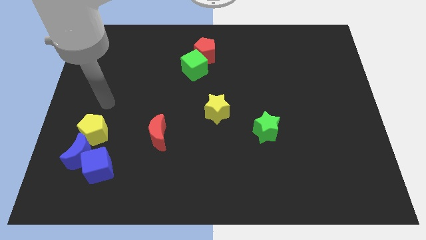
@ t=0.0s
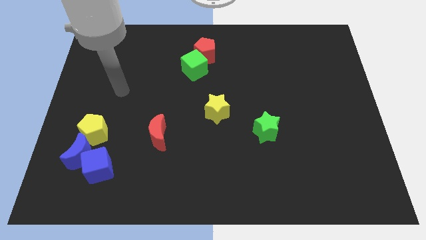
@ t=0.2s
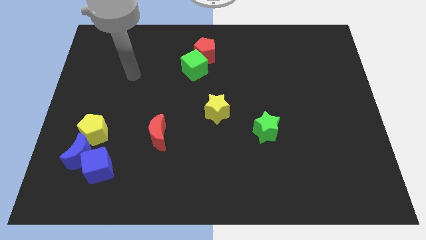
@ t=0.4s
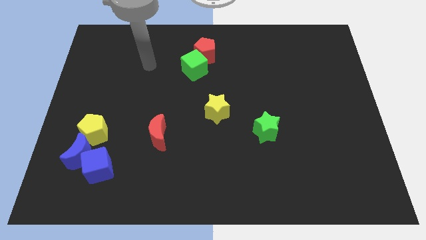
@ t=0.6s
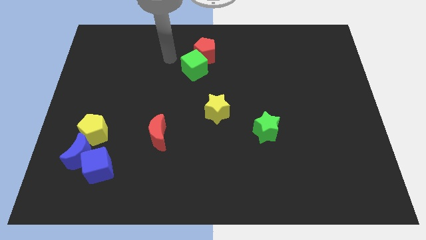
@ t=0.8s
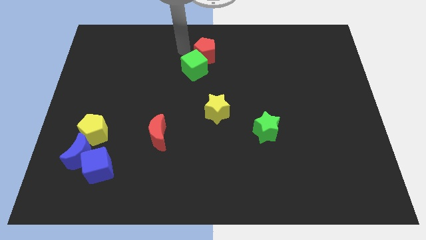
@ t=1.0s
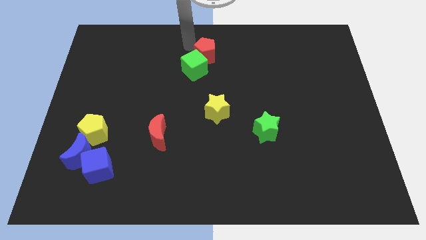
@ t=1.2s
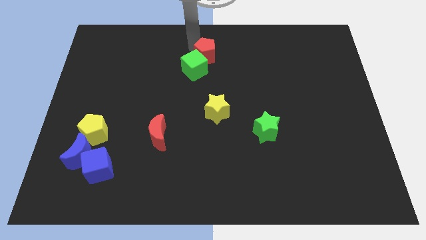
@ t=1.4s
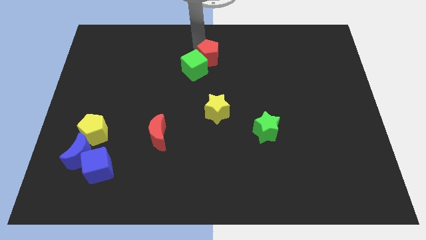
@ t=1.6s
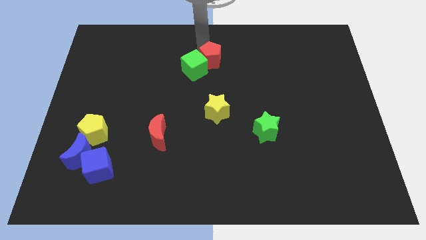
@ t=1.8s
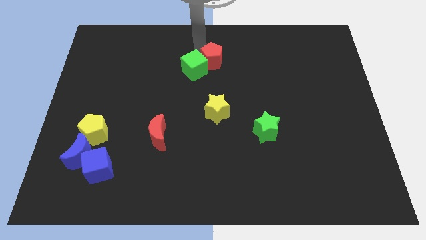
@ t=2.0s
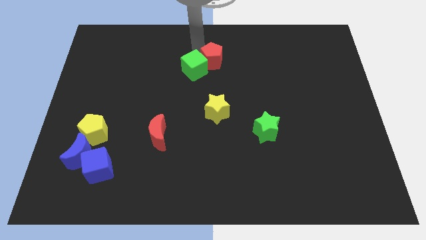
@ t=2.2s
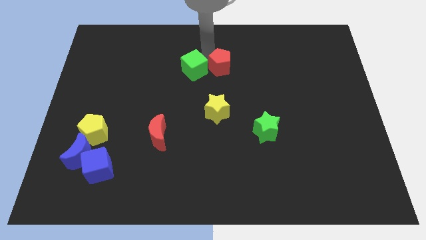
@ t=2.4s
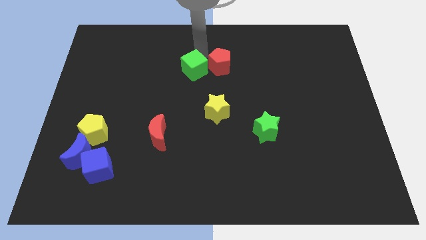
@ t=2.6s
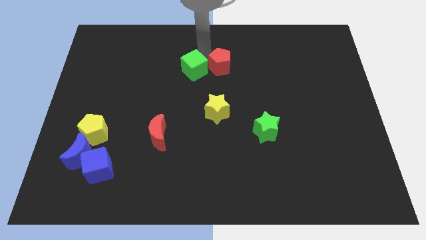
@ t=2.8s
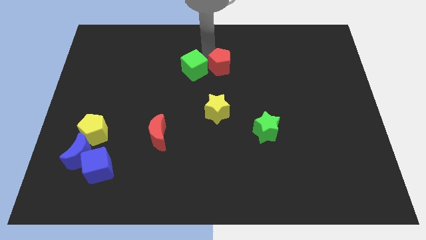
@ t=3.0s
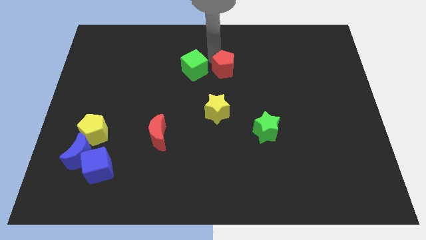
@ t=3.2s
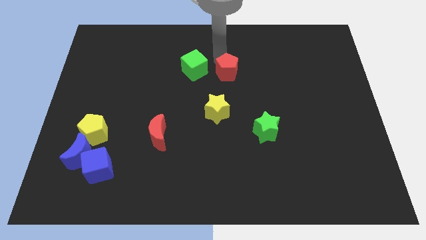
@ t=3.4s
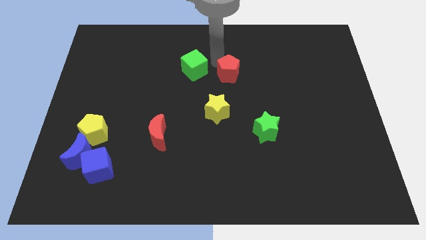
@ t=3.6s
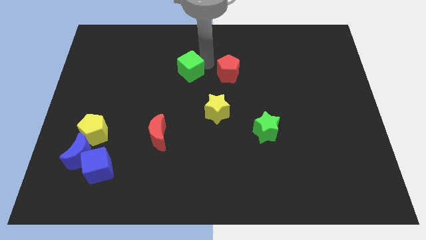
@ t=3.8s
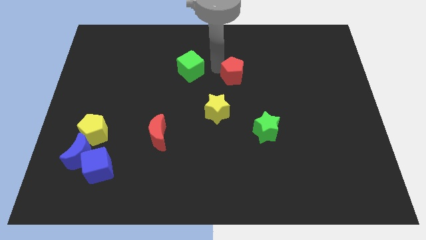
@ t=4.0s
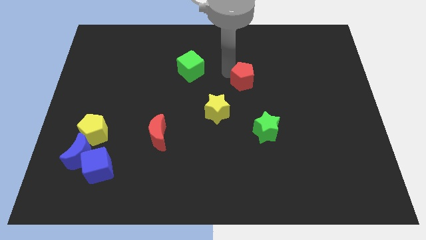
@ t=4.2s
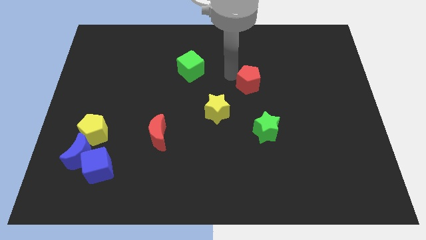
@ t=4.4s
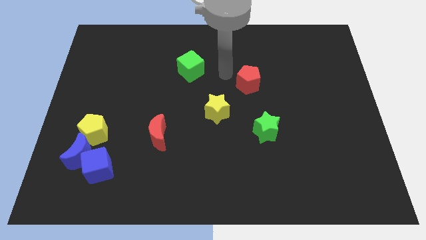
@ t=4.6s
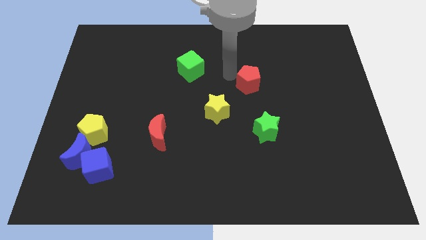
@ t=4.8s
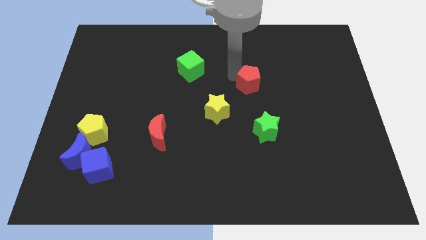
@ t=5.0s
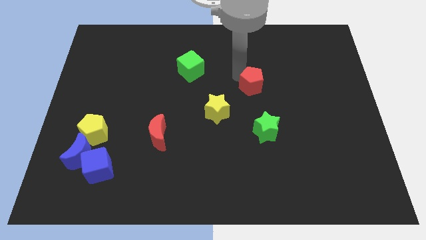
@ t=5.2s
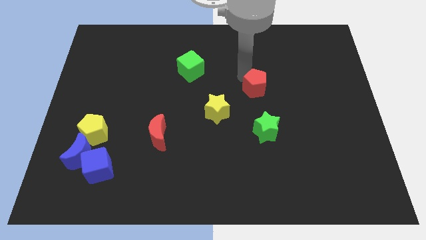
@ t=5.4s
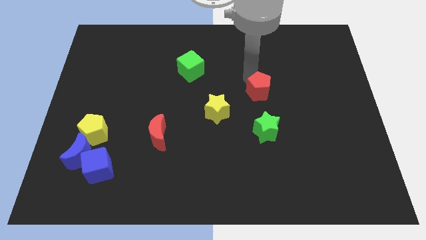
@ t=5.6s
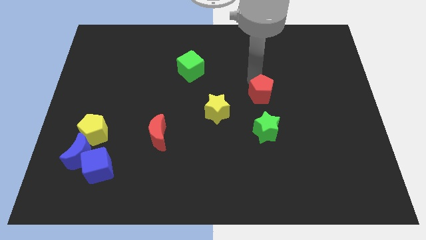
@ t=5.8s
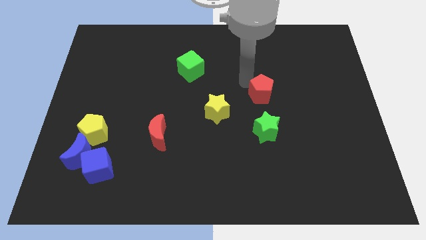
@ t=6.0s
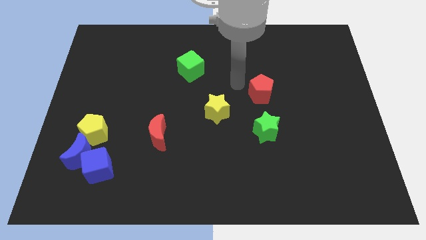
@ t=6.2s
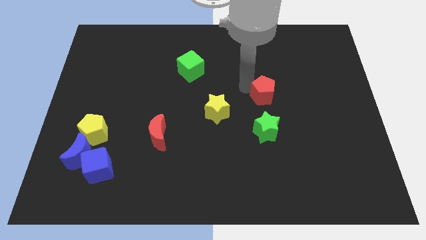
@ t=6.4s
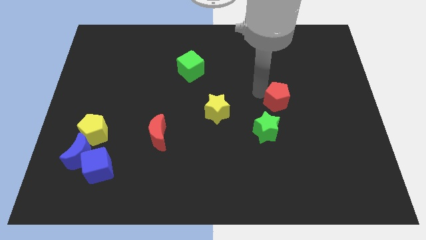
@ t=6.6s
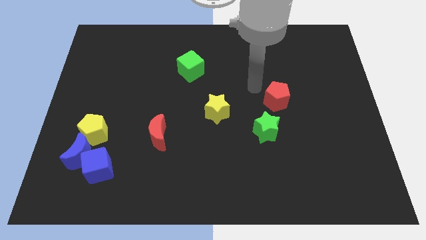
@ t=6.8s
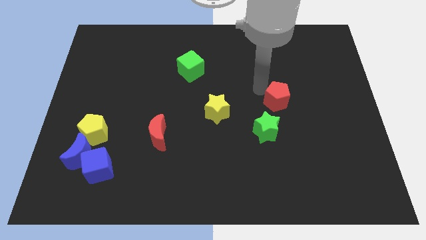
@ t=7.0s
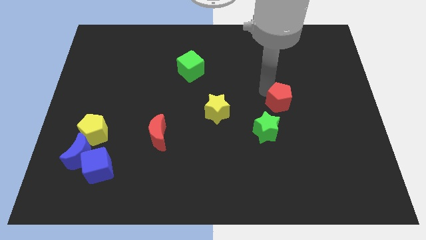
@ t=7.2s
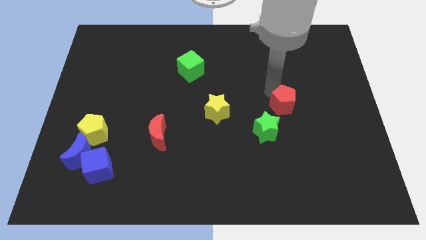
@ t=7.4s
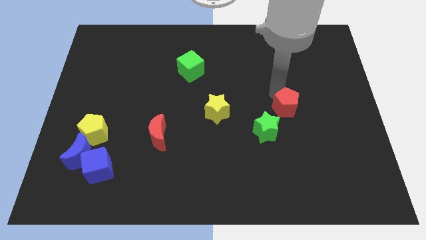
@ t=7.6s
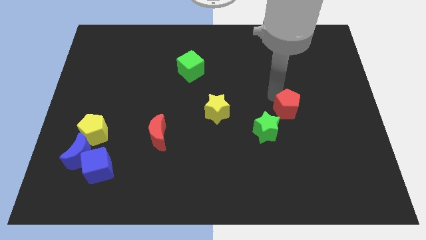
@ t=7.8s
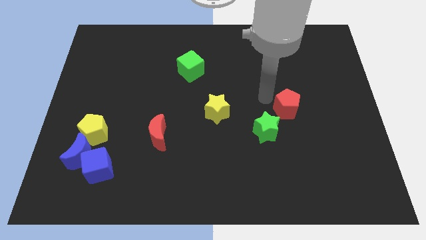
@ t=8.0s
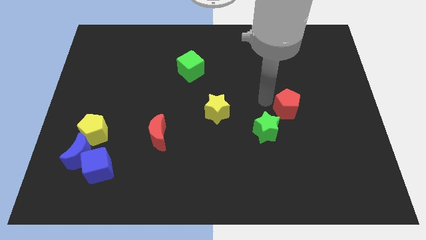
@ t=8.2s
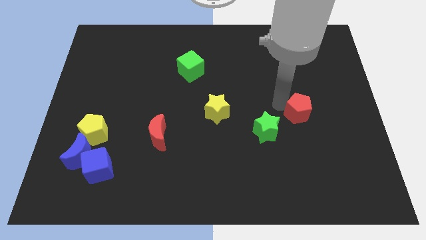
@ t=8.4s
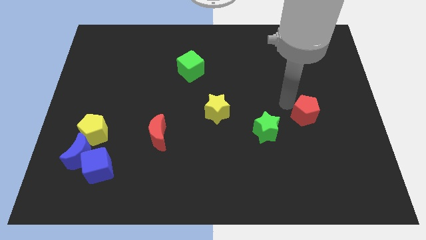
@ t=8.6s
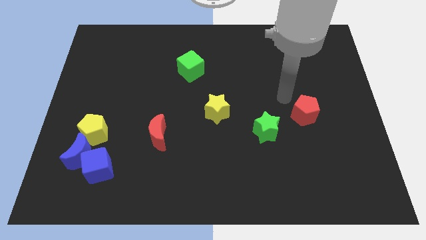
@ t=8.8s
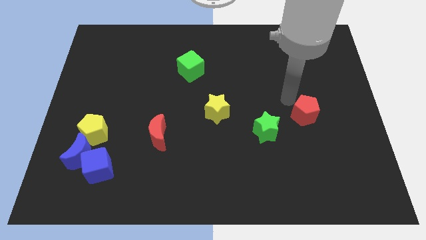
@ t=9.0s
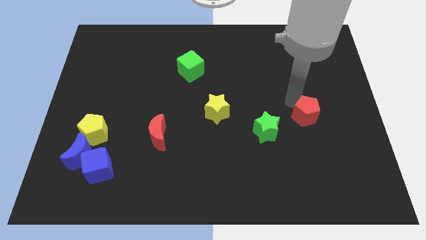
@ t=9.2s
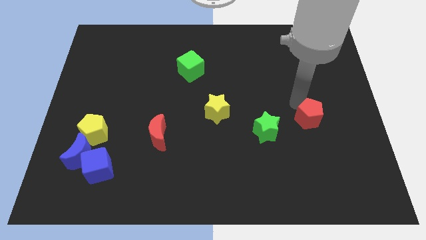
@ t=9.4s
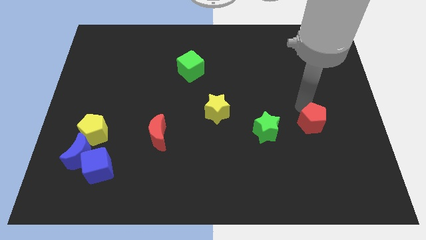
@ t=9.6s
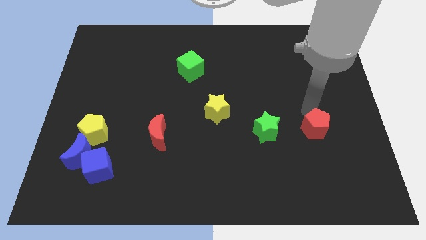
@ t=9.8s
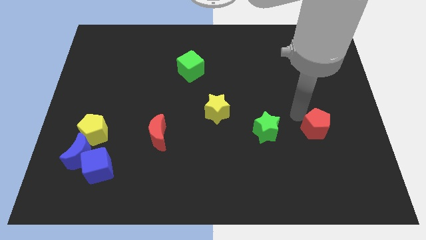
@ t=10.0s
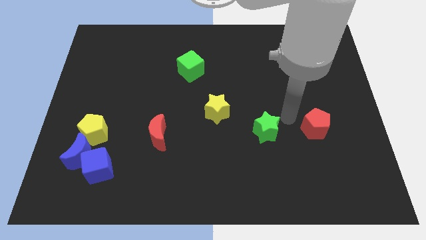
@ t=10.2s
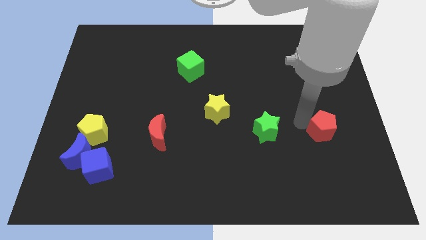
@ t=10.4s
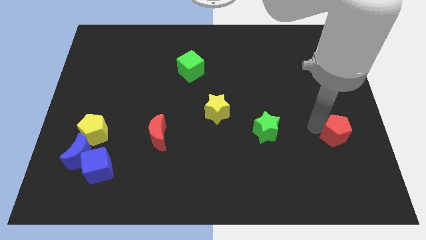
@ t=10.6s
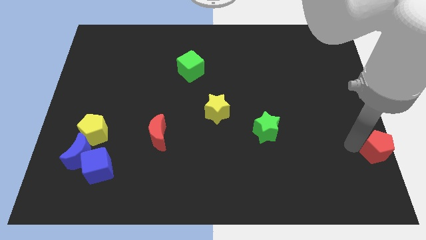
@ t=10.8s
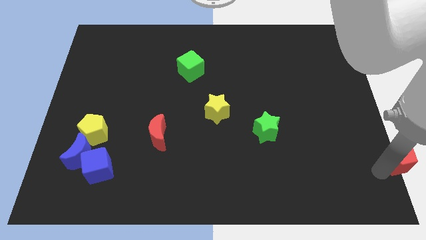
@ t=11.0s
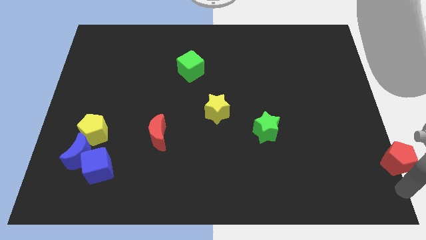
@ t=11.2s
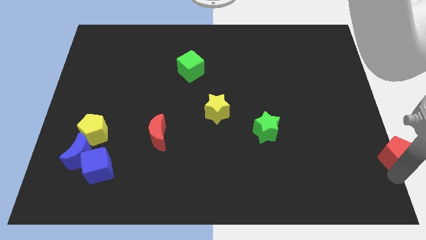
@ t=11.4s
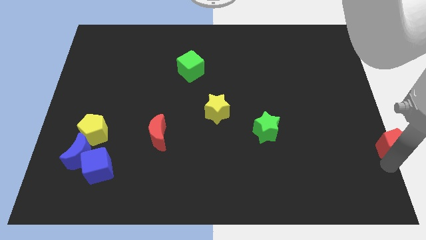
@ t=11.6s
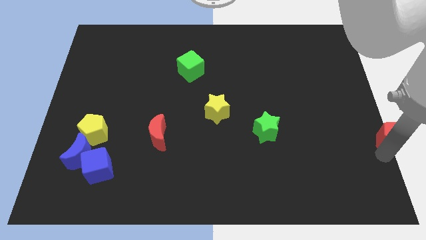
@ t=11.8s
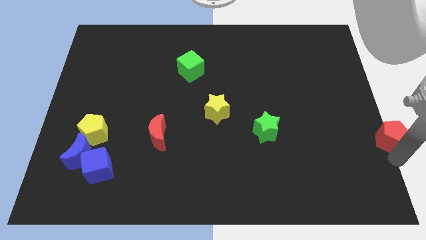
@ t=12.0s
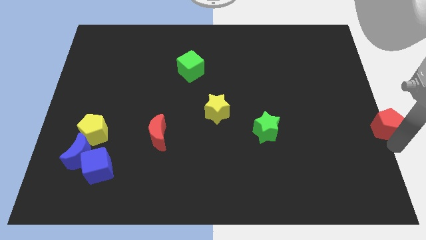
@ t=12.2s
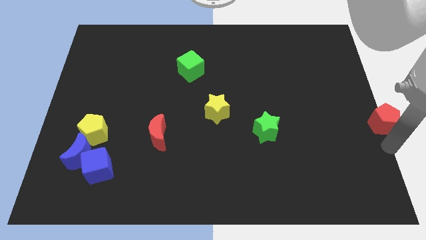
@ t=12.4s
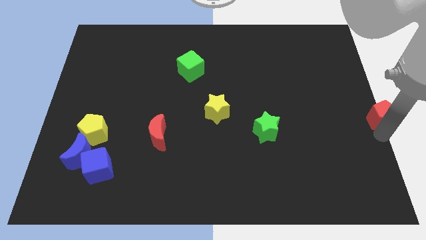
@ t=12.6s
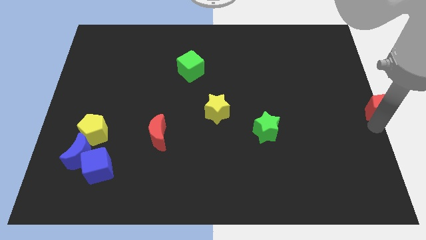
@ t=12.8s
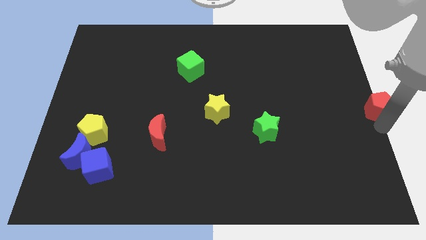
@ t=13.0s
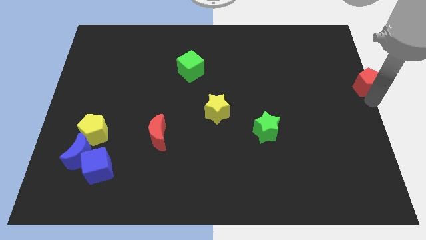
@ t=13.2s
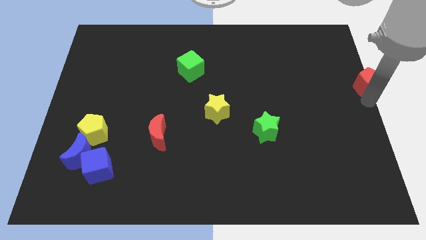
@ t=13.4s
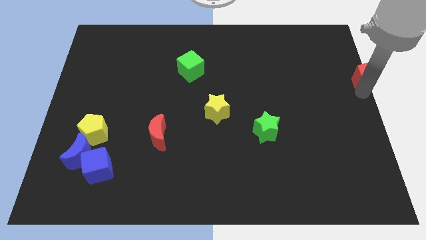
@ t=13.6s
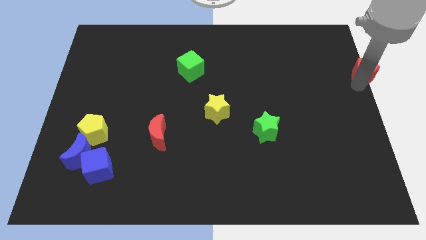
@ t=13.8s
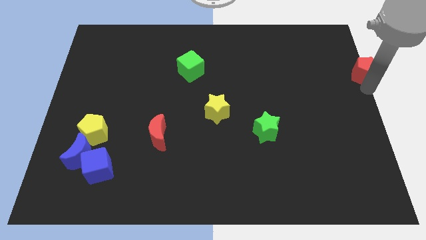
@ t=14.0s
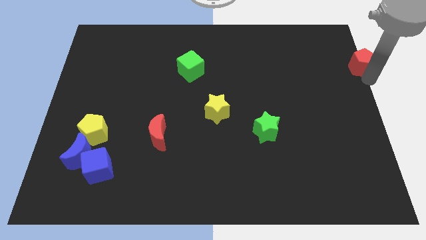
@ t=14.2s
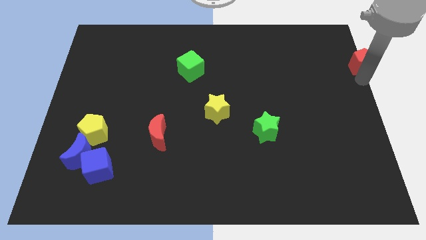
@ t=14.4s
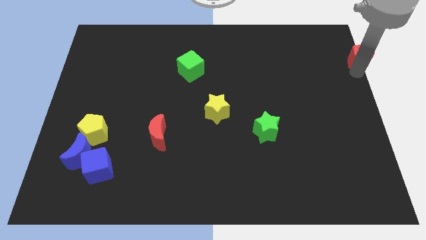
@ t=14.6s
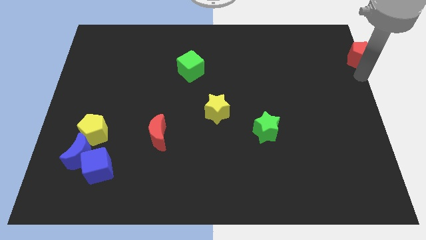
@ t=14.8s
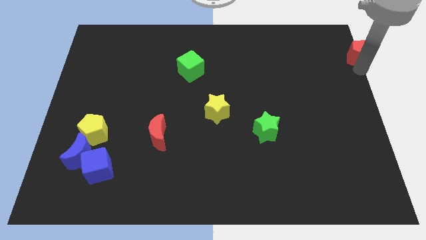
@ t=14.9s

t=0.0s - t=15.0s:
move the red pentagon to the top right
